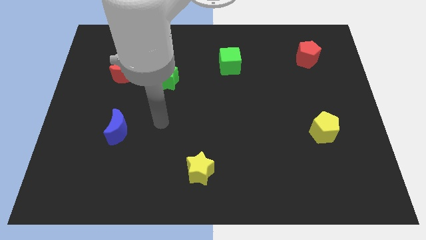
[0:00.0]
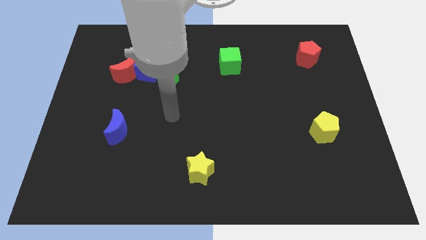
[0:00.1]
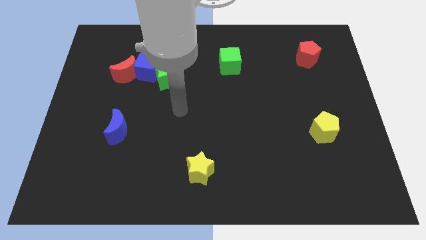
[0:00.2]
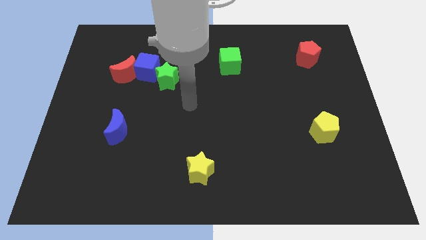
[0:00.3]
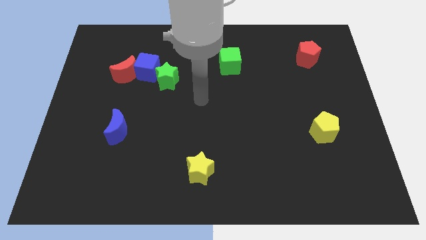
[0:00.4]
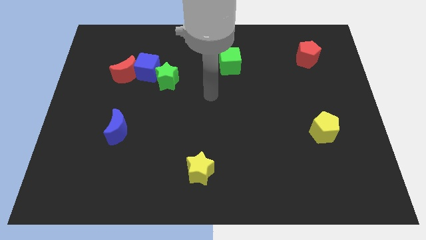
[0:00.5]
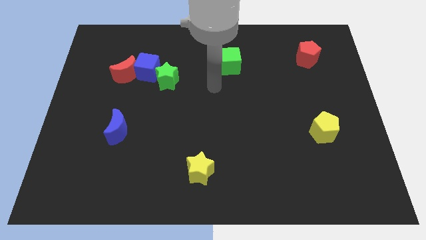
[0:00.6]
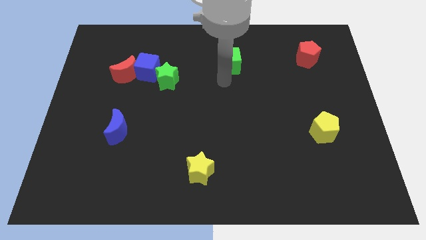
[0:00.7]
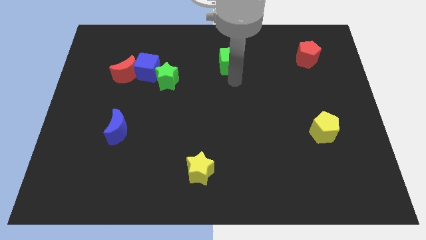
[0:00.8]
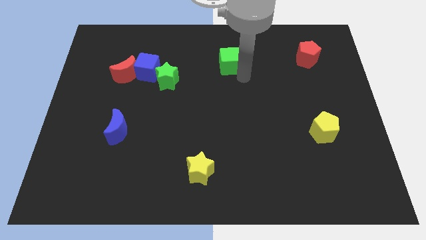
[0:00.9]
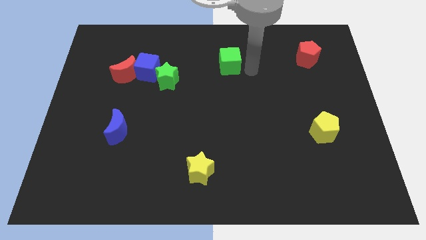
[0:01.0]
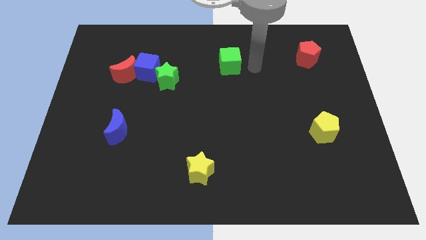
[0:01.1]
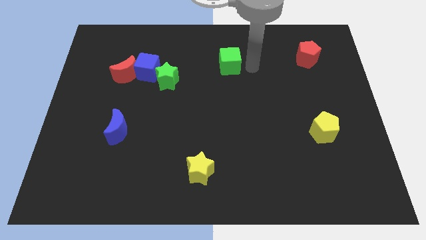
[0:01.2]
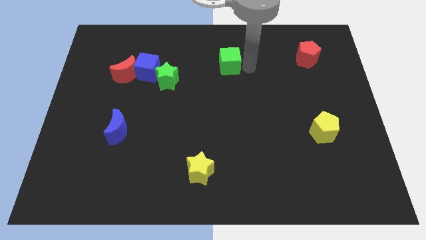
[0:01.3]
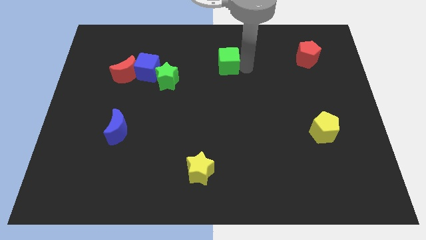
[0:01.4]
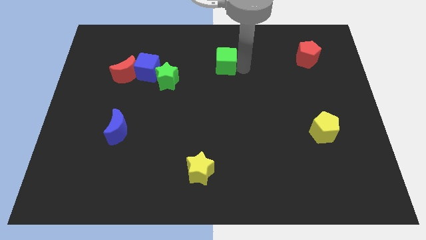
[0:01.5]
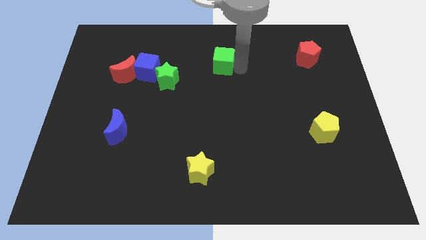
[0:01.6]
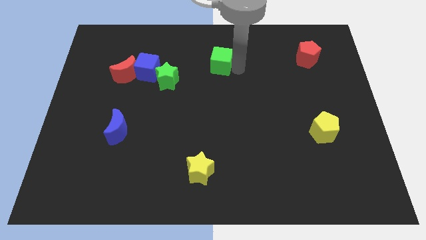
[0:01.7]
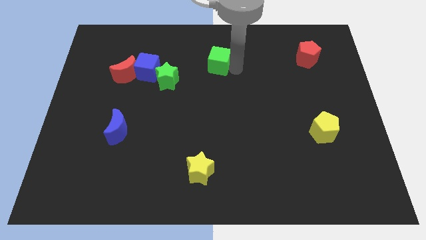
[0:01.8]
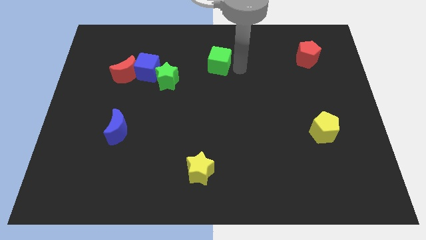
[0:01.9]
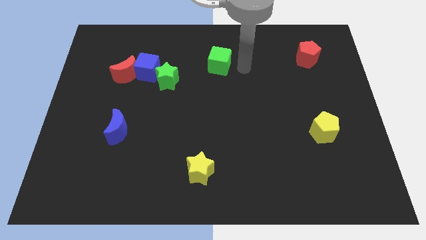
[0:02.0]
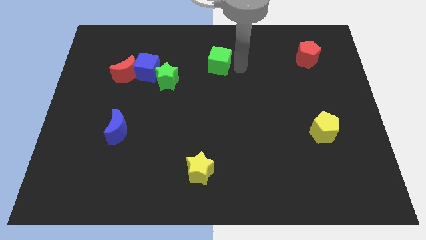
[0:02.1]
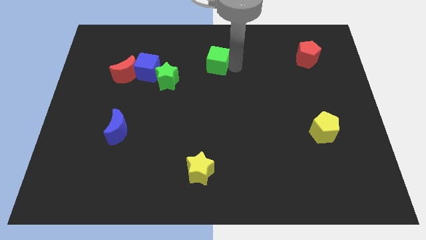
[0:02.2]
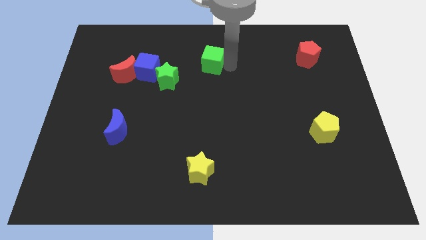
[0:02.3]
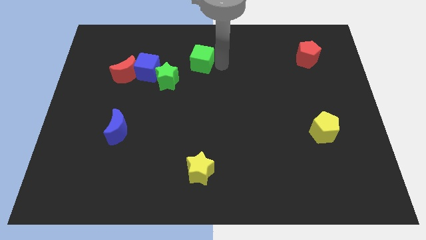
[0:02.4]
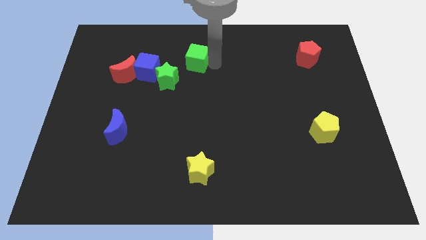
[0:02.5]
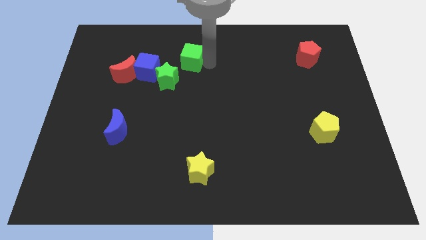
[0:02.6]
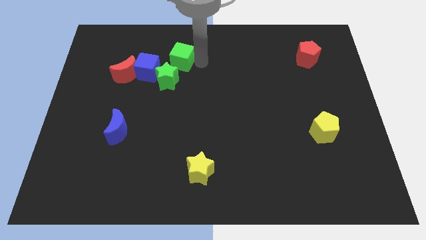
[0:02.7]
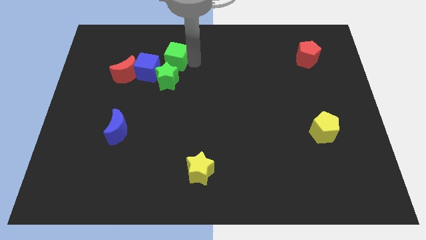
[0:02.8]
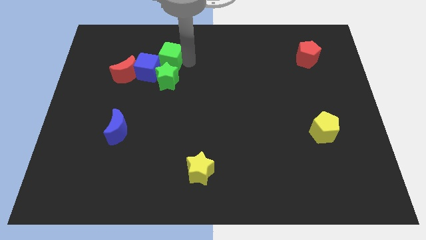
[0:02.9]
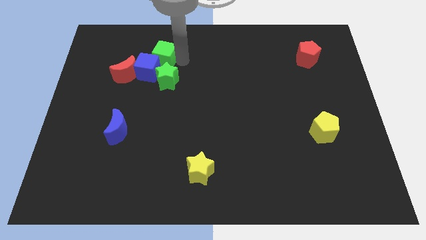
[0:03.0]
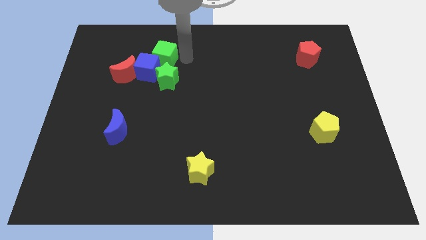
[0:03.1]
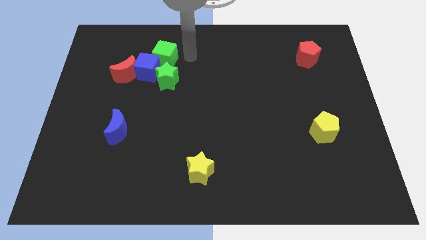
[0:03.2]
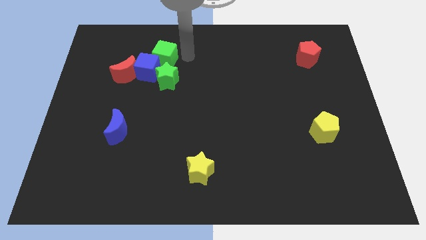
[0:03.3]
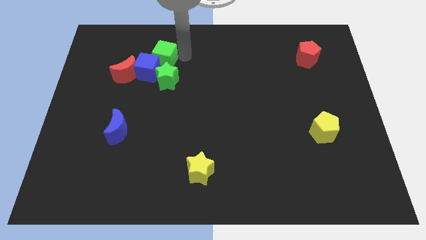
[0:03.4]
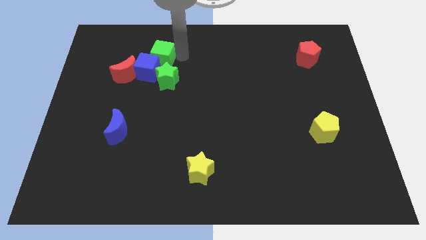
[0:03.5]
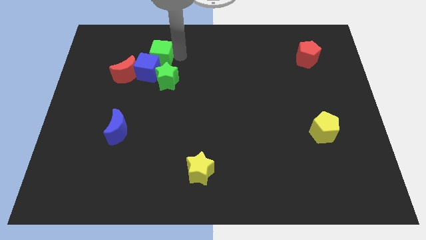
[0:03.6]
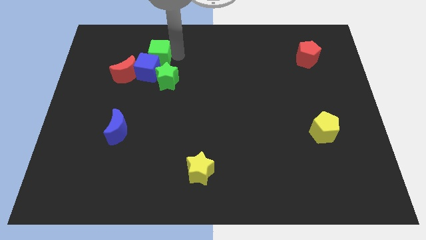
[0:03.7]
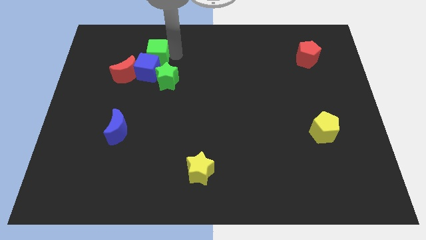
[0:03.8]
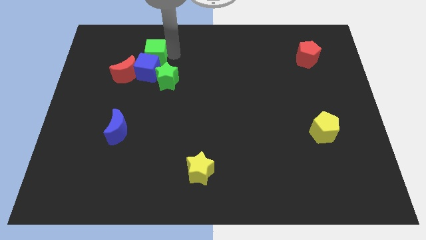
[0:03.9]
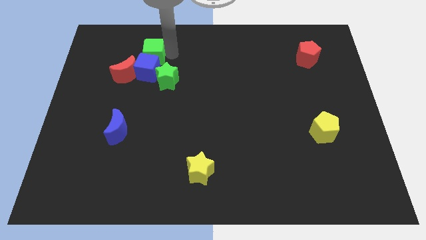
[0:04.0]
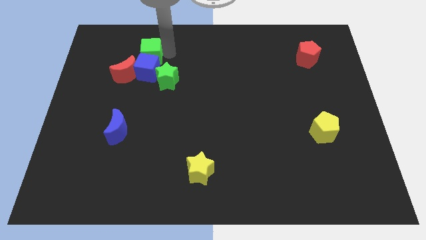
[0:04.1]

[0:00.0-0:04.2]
move the green cube left

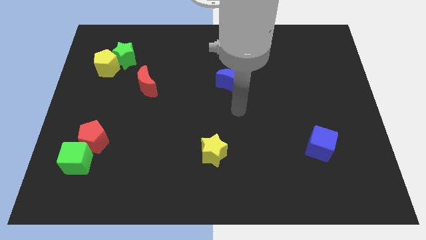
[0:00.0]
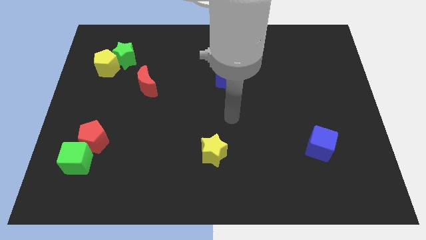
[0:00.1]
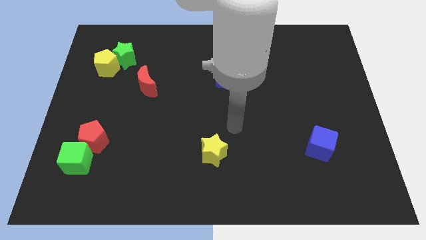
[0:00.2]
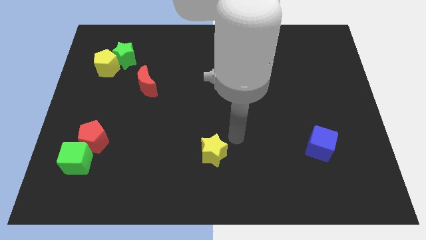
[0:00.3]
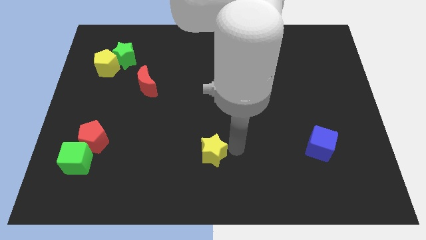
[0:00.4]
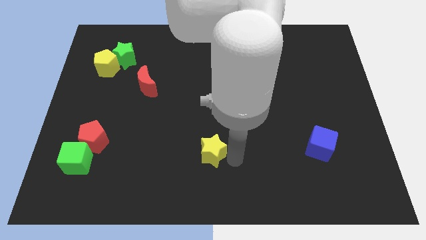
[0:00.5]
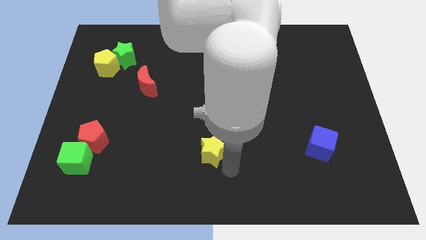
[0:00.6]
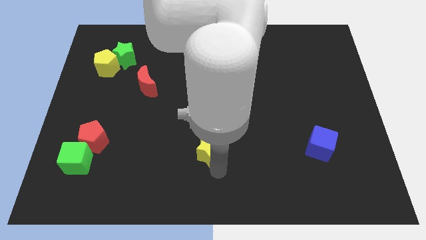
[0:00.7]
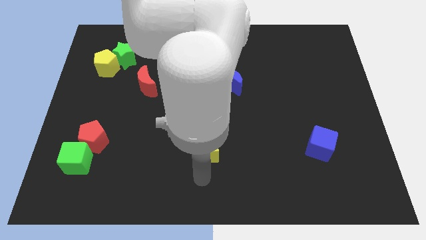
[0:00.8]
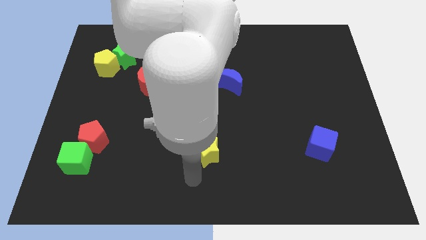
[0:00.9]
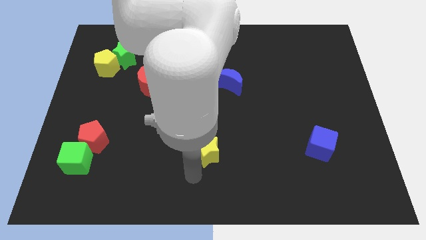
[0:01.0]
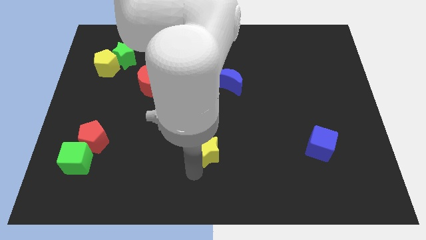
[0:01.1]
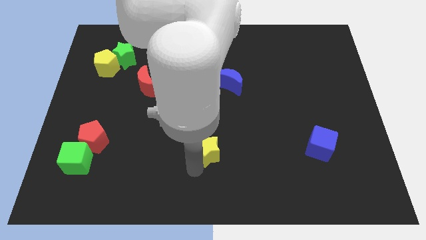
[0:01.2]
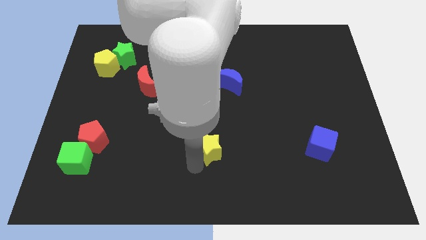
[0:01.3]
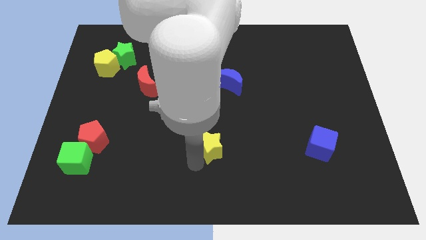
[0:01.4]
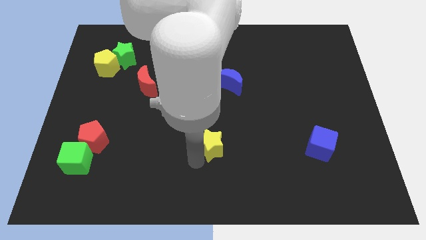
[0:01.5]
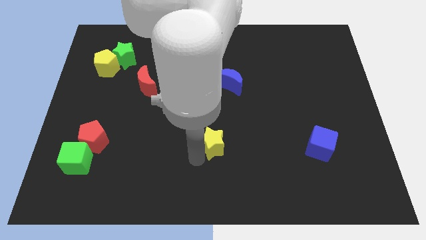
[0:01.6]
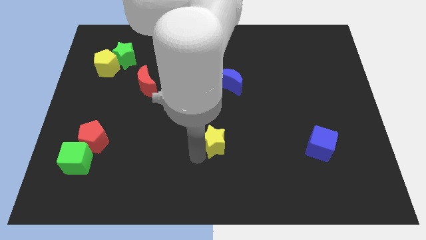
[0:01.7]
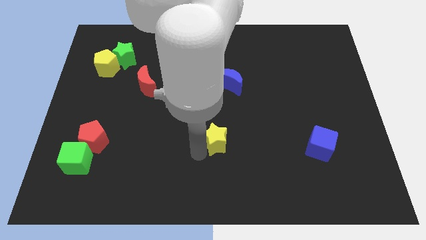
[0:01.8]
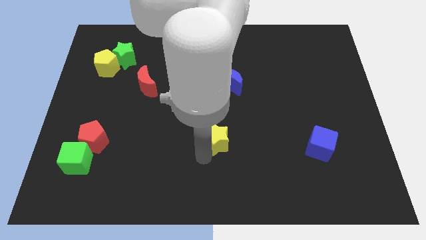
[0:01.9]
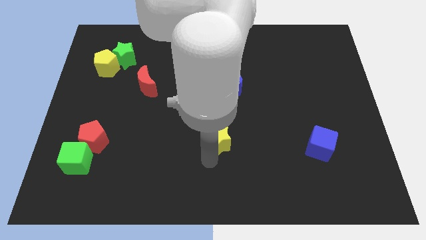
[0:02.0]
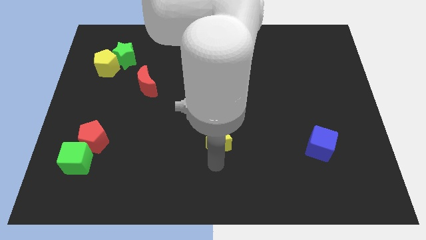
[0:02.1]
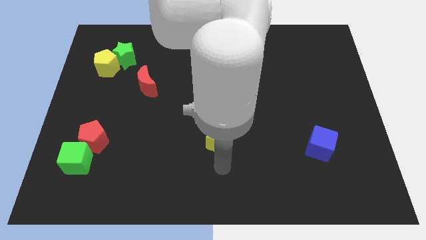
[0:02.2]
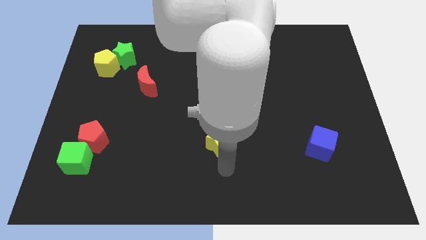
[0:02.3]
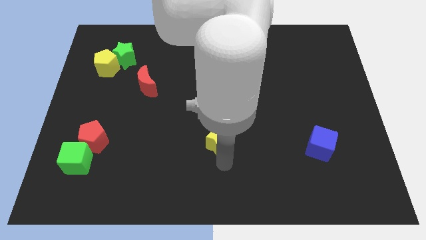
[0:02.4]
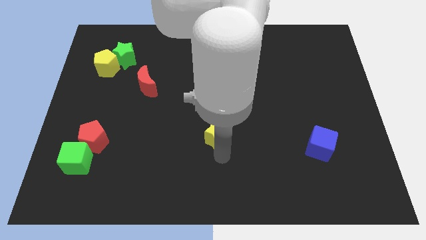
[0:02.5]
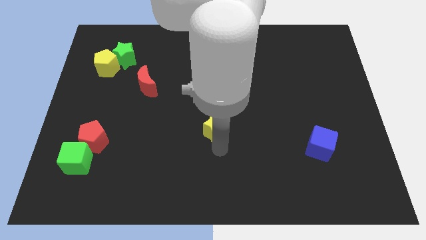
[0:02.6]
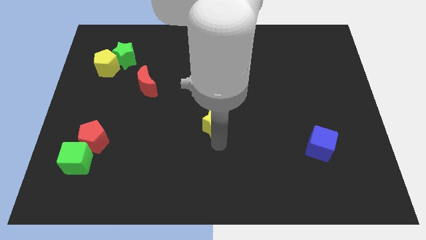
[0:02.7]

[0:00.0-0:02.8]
slightly push the yellow star upwards

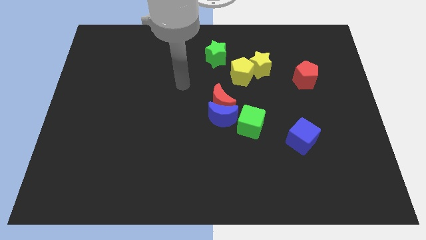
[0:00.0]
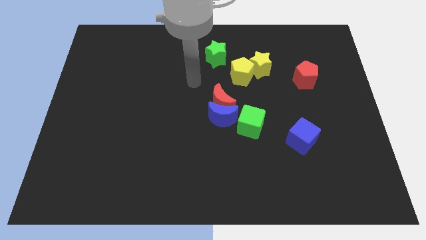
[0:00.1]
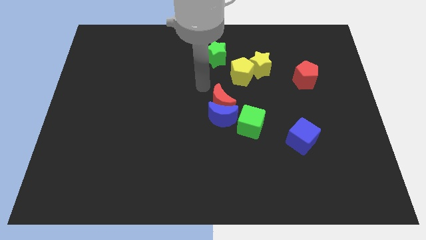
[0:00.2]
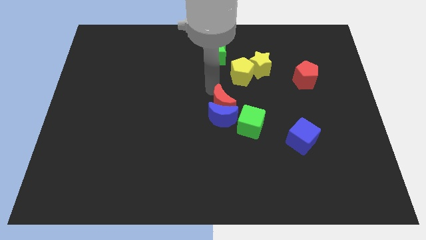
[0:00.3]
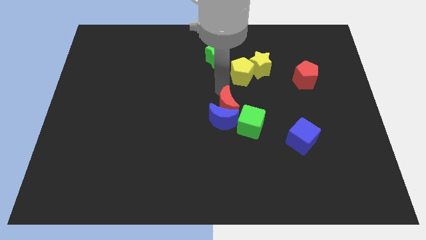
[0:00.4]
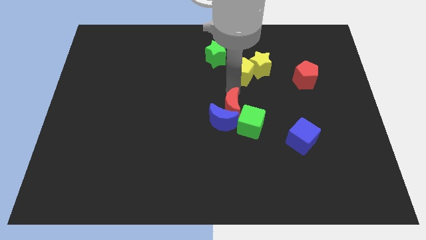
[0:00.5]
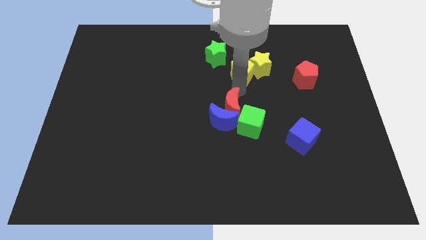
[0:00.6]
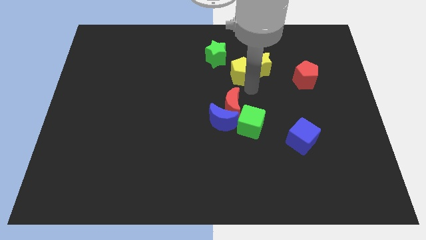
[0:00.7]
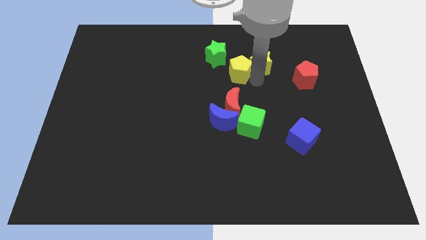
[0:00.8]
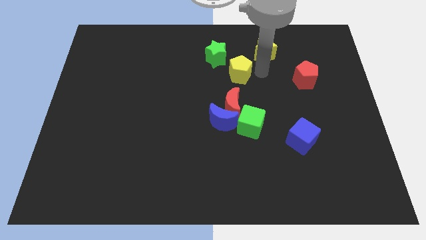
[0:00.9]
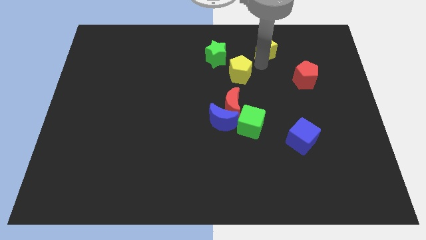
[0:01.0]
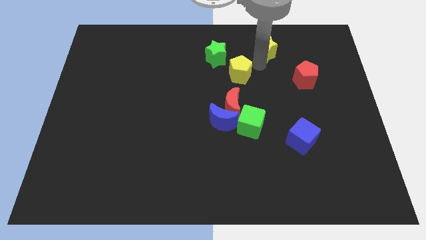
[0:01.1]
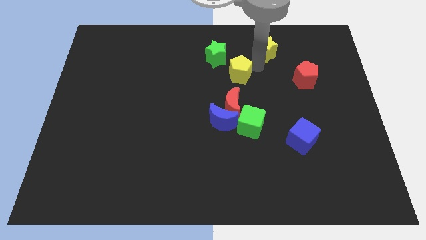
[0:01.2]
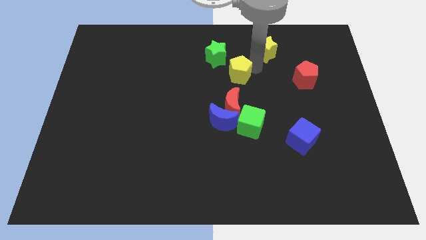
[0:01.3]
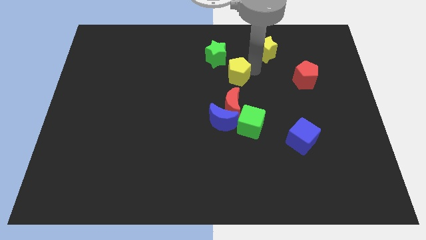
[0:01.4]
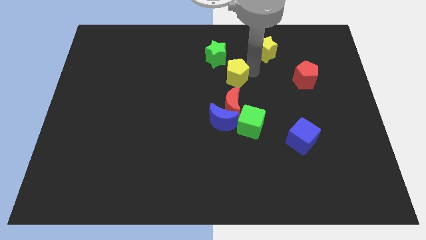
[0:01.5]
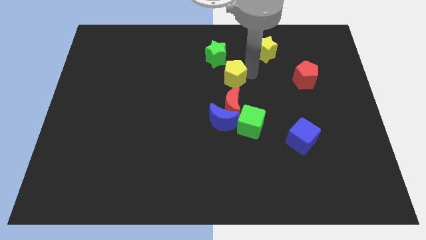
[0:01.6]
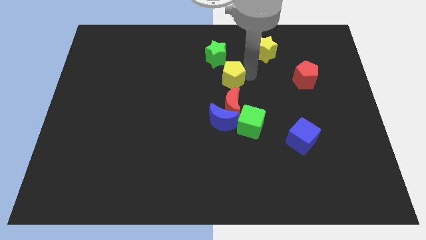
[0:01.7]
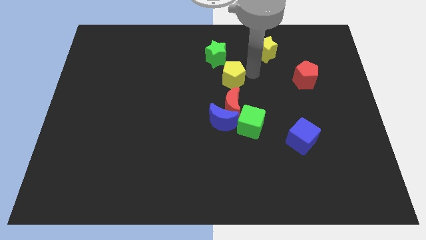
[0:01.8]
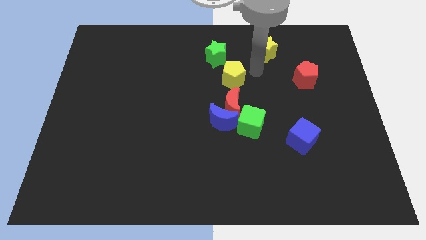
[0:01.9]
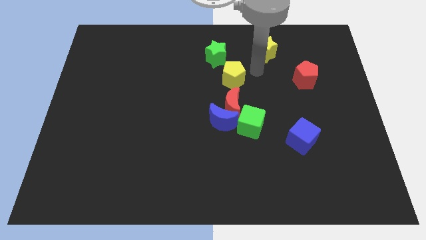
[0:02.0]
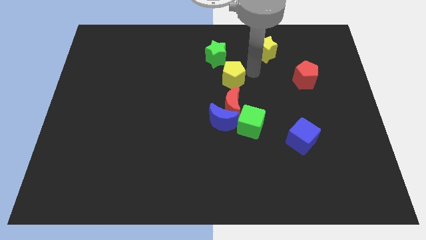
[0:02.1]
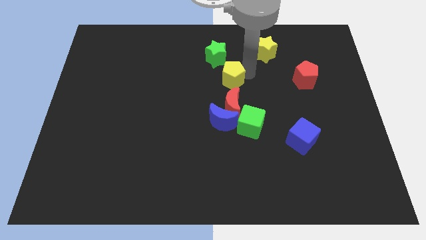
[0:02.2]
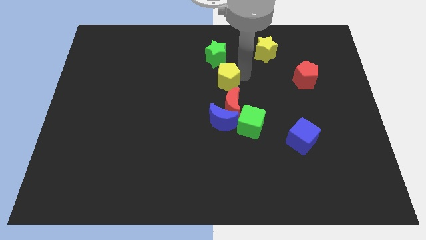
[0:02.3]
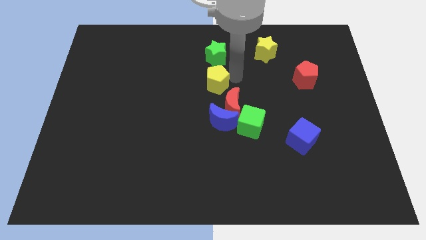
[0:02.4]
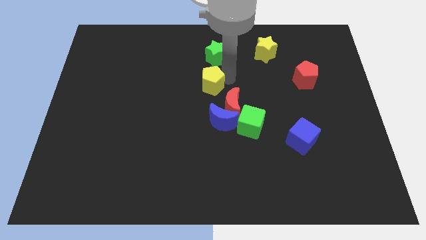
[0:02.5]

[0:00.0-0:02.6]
slightly move the yellow pentagon down and left
